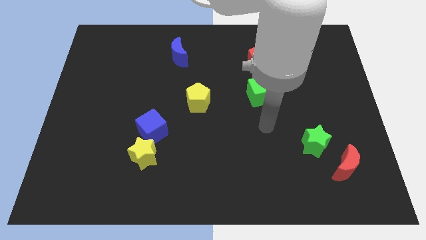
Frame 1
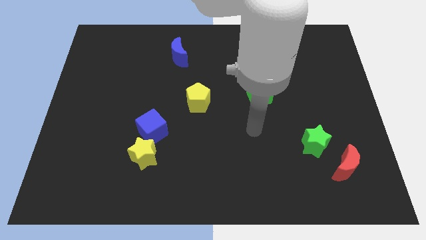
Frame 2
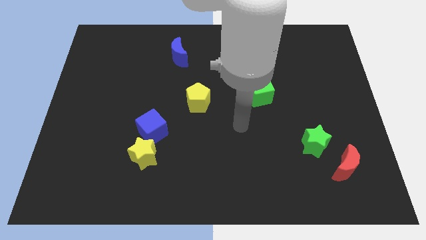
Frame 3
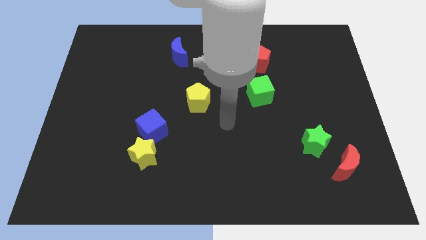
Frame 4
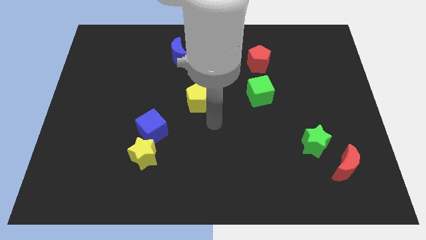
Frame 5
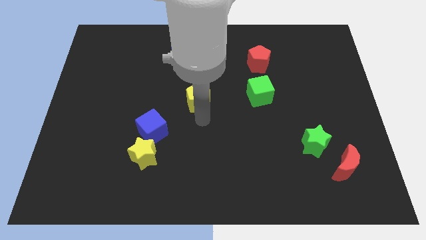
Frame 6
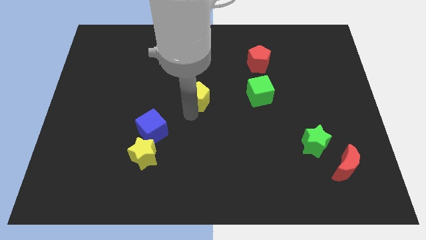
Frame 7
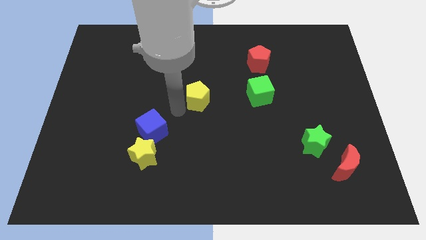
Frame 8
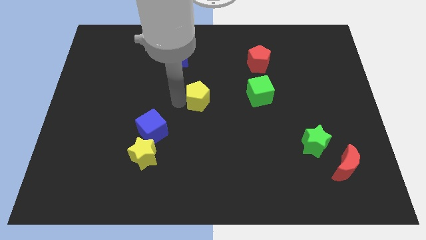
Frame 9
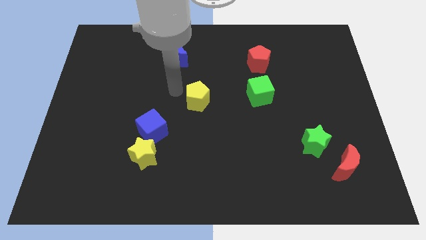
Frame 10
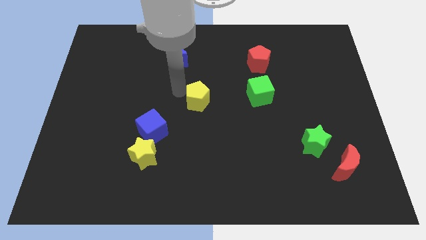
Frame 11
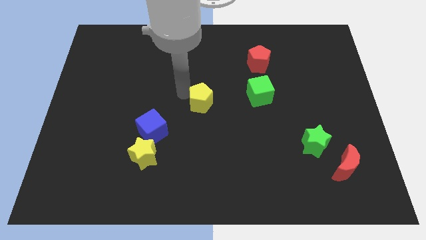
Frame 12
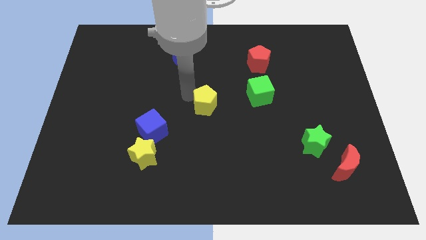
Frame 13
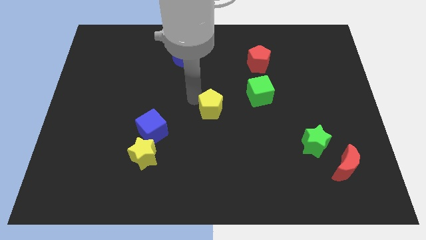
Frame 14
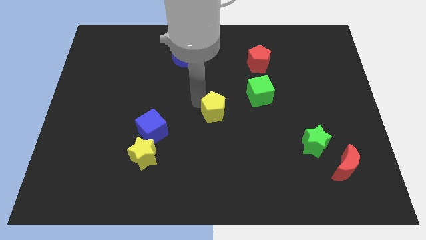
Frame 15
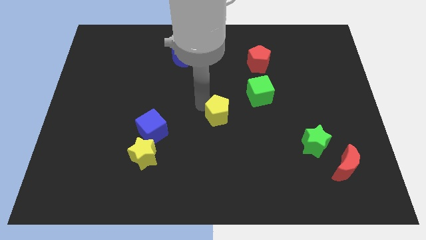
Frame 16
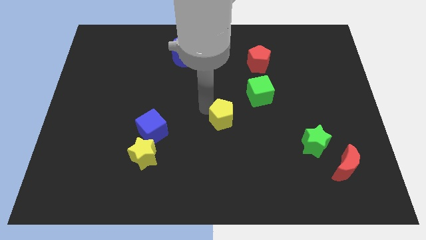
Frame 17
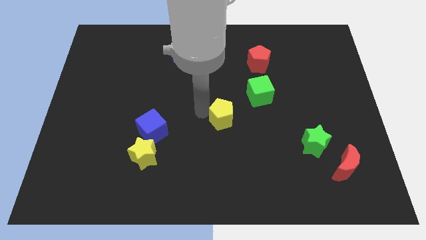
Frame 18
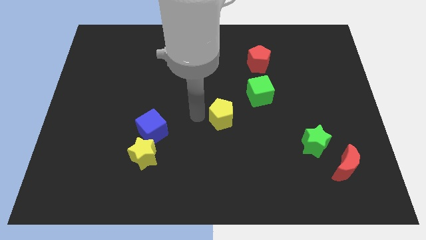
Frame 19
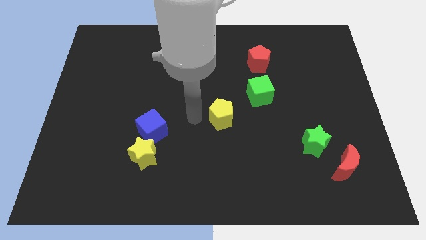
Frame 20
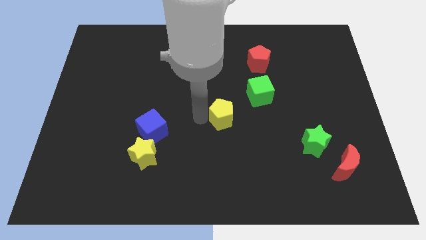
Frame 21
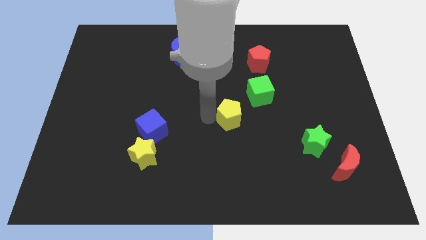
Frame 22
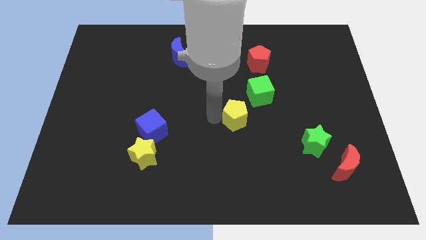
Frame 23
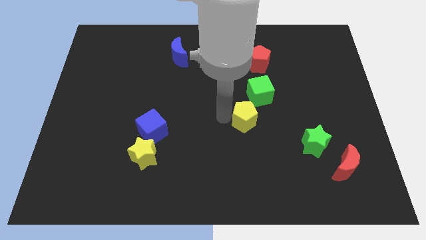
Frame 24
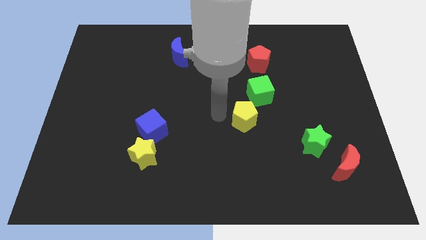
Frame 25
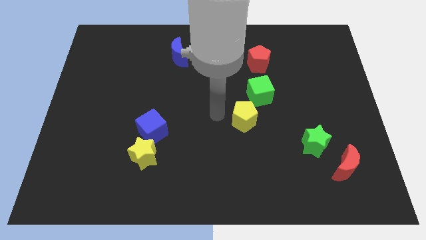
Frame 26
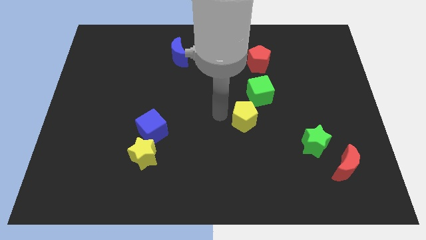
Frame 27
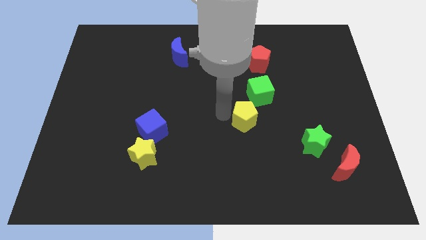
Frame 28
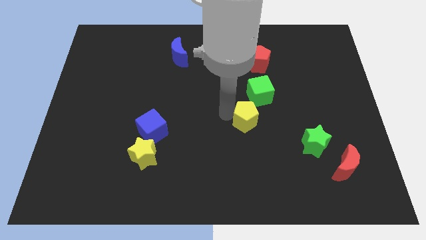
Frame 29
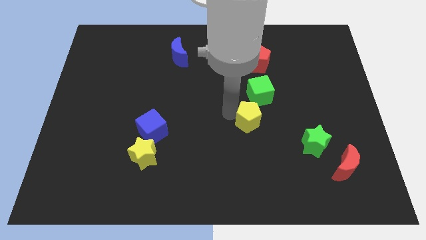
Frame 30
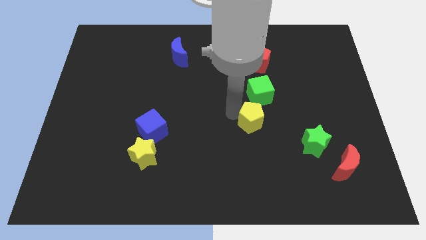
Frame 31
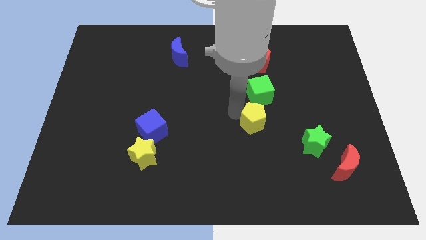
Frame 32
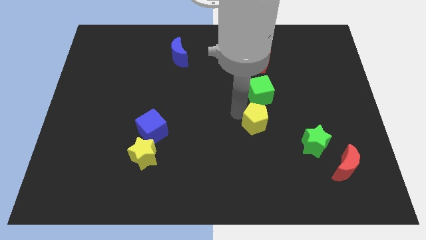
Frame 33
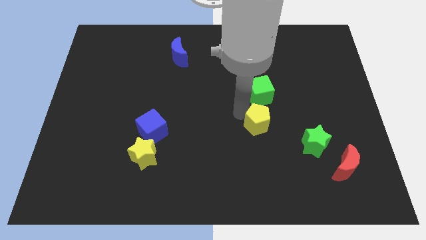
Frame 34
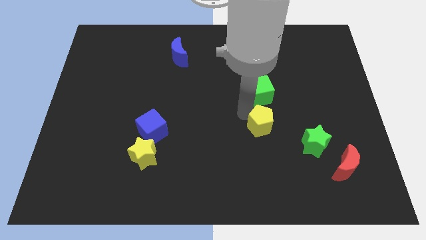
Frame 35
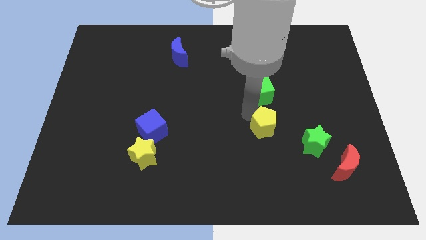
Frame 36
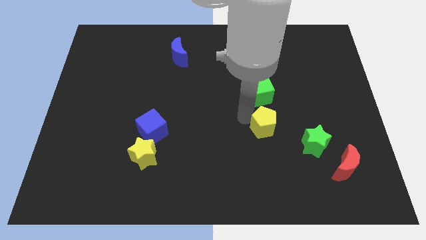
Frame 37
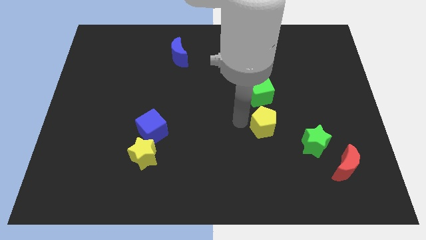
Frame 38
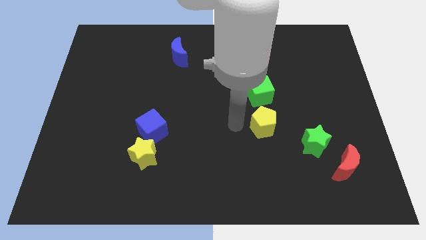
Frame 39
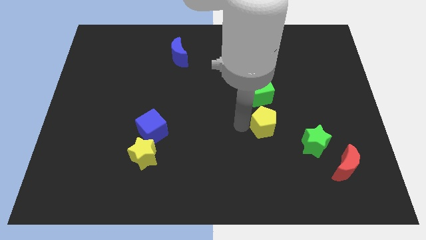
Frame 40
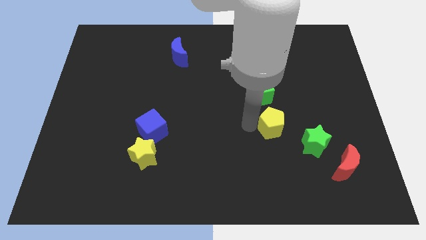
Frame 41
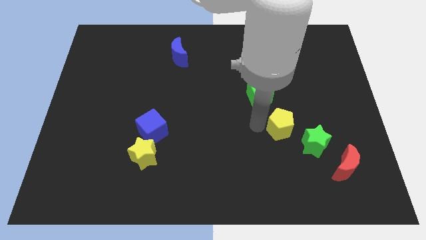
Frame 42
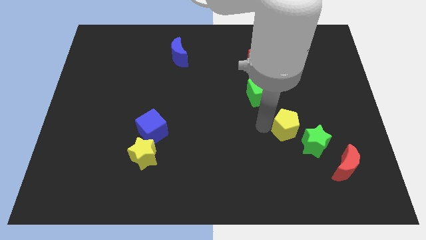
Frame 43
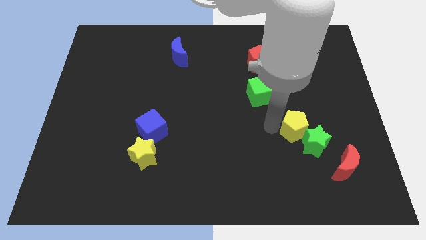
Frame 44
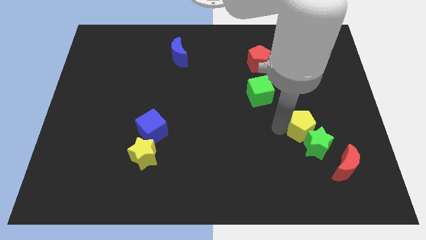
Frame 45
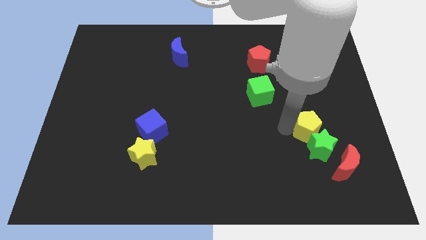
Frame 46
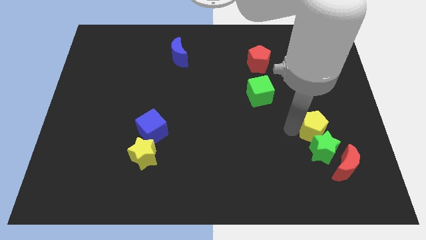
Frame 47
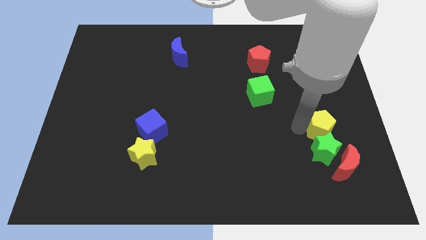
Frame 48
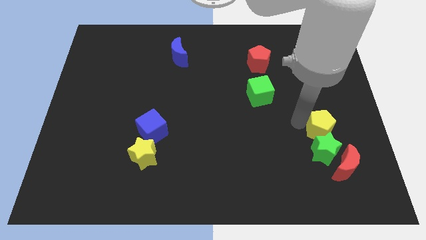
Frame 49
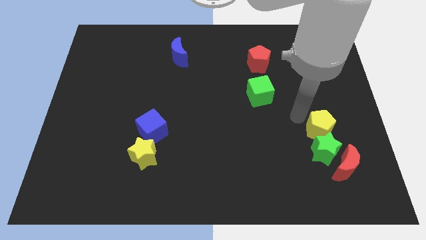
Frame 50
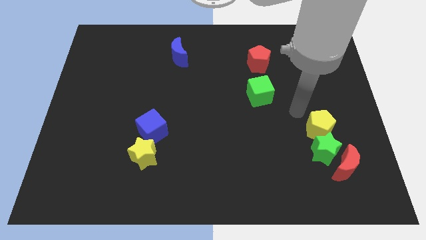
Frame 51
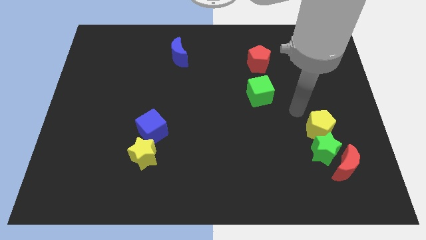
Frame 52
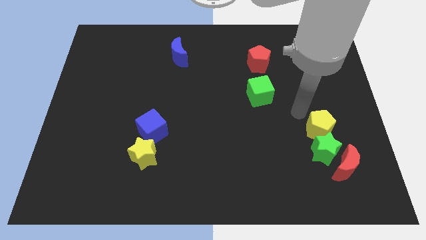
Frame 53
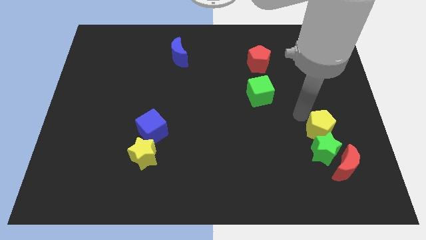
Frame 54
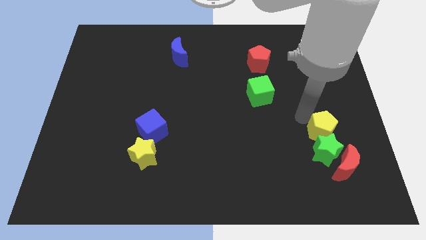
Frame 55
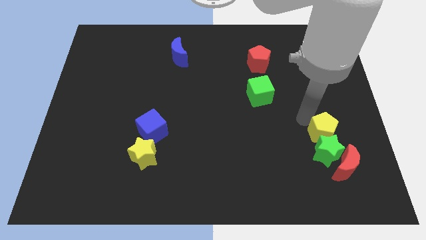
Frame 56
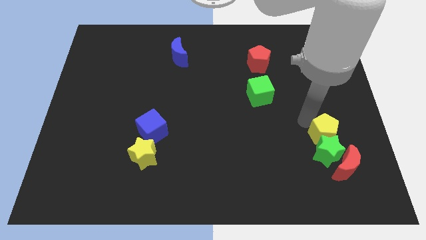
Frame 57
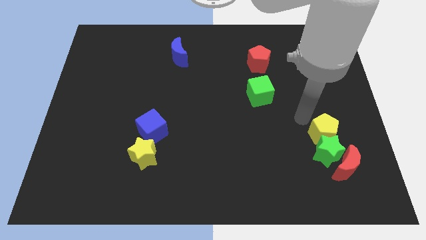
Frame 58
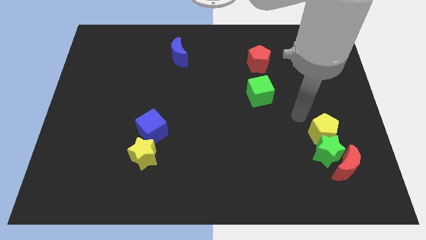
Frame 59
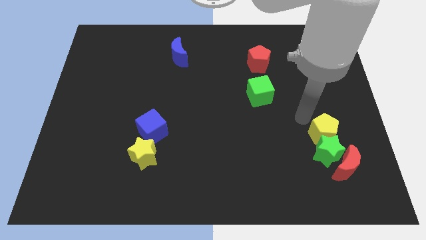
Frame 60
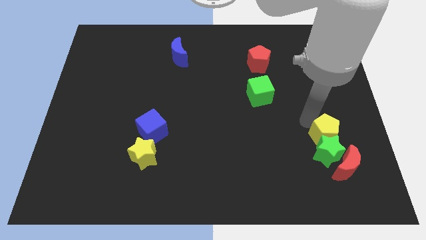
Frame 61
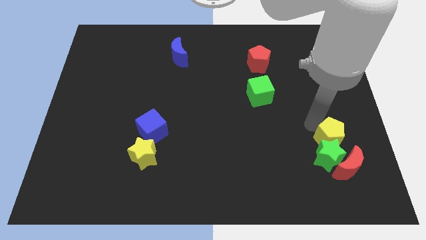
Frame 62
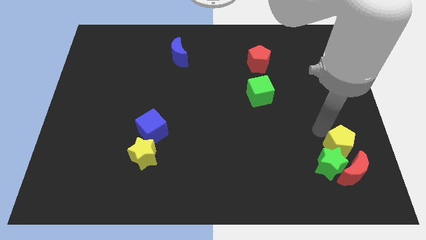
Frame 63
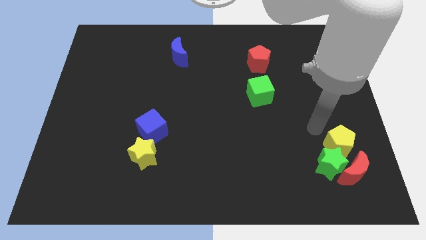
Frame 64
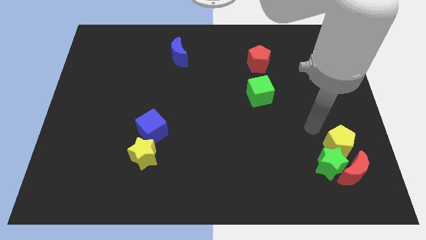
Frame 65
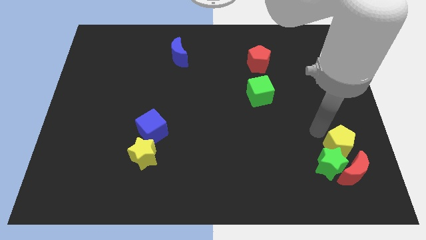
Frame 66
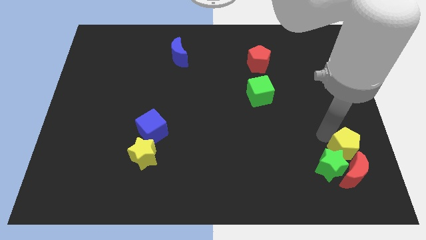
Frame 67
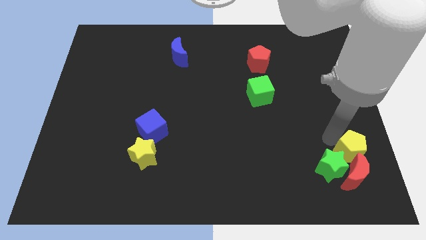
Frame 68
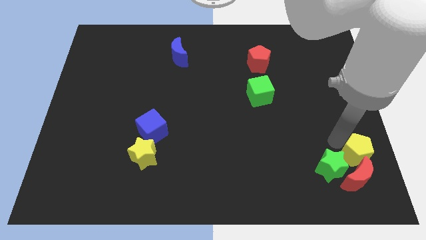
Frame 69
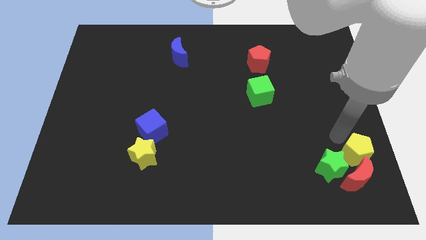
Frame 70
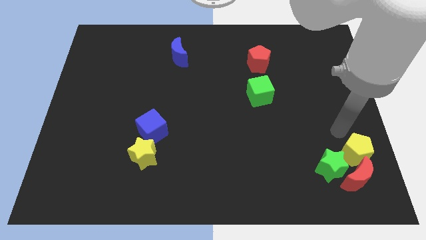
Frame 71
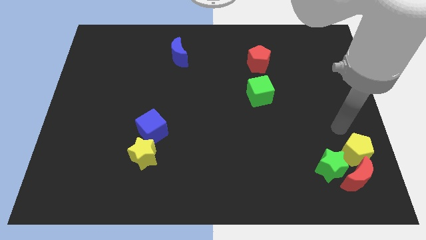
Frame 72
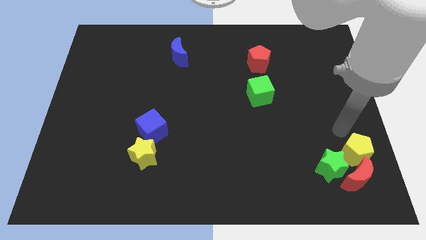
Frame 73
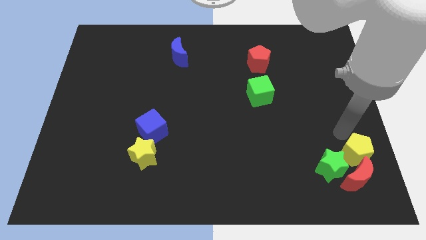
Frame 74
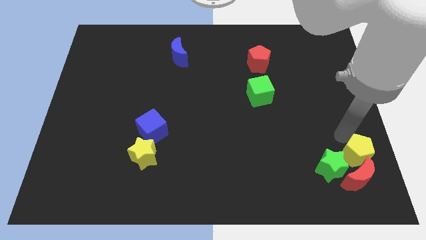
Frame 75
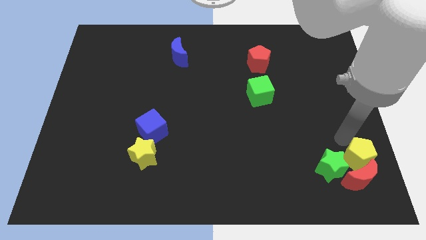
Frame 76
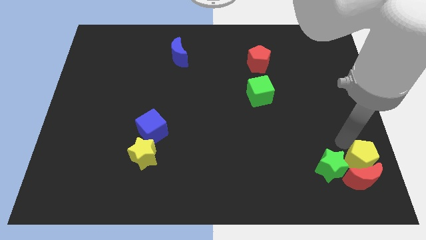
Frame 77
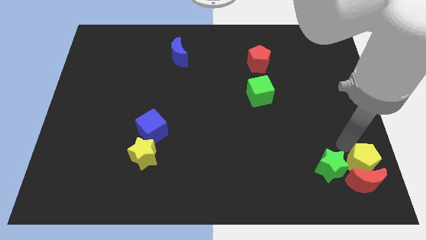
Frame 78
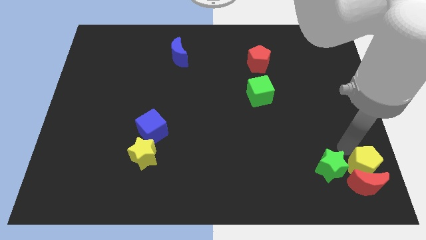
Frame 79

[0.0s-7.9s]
push the yellow pentagon to the lower right corner
